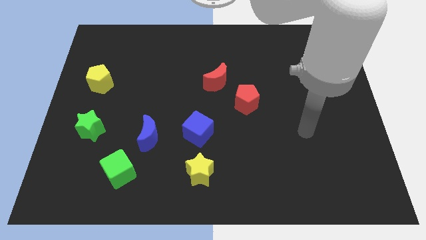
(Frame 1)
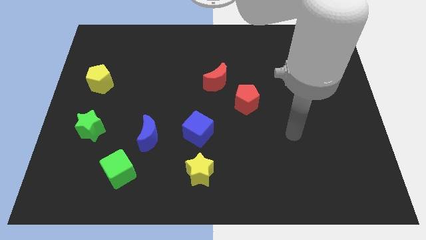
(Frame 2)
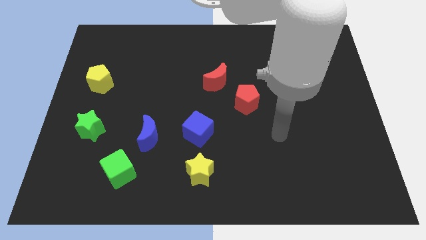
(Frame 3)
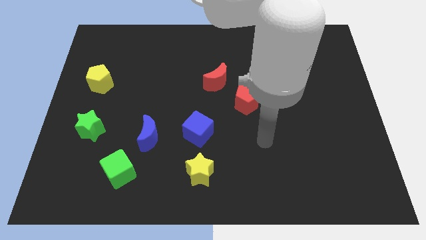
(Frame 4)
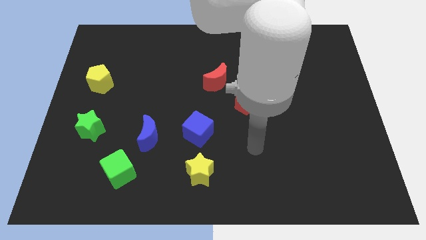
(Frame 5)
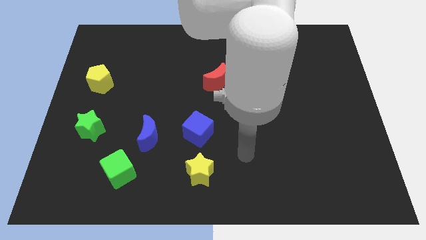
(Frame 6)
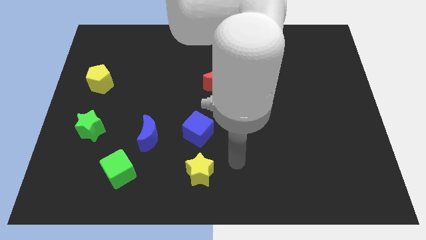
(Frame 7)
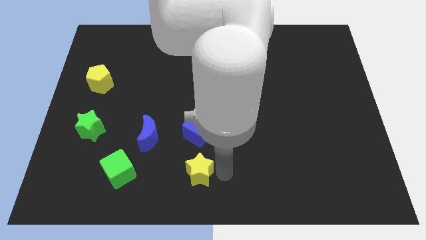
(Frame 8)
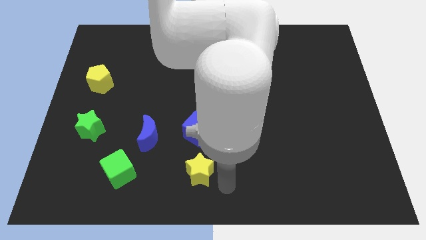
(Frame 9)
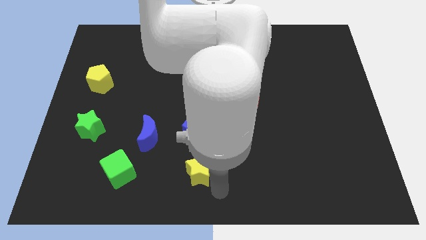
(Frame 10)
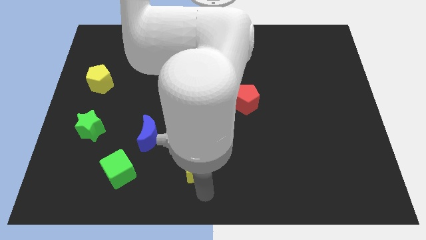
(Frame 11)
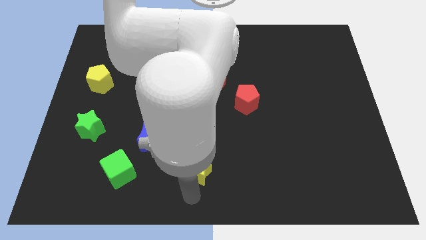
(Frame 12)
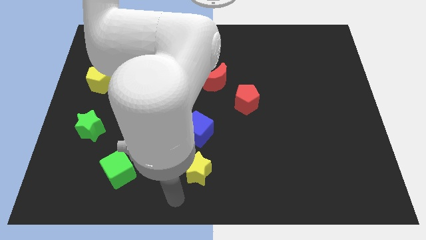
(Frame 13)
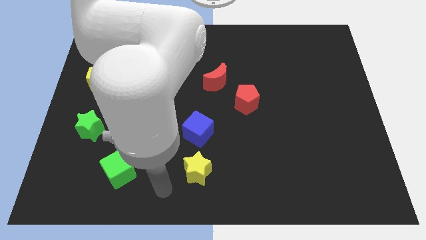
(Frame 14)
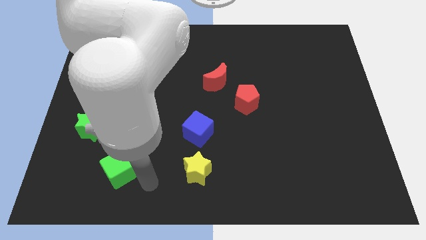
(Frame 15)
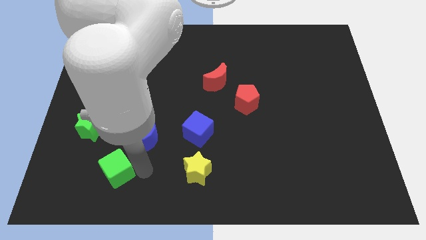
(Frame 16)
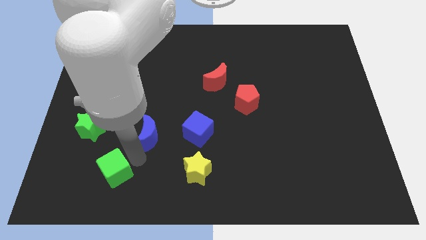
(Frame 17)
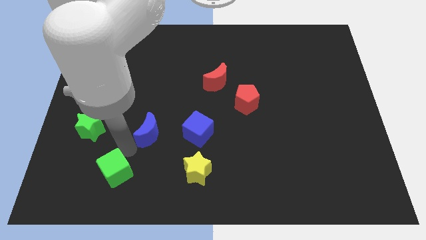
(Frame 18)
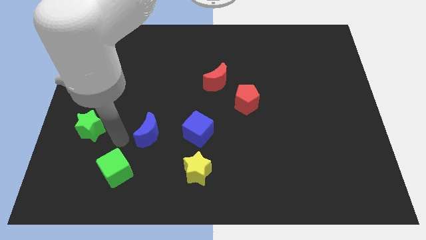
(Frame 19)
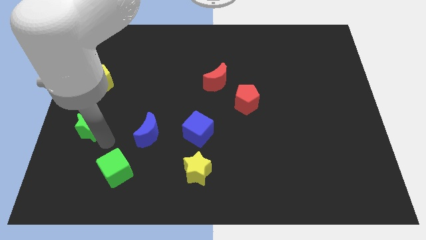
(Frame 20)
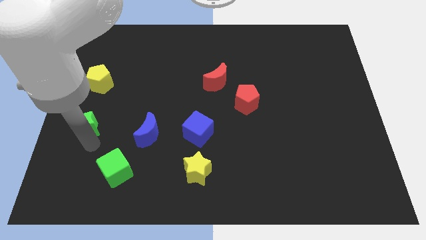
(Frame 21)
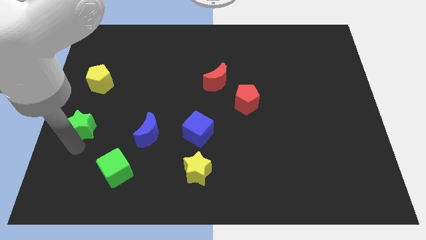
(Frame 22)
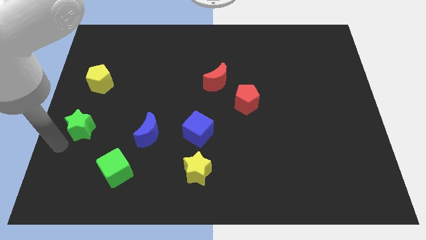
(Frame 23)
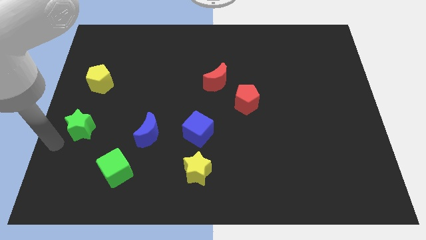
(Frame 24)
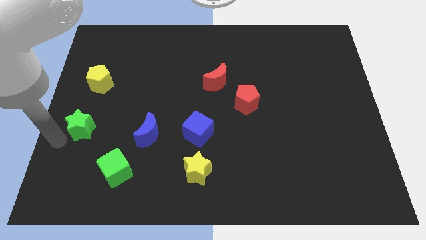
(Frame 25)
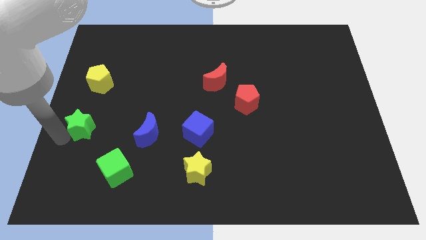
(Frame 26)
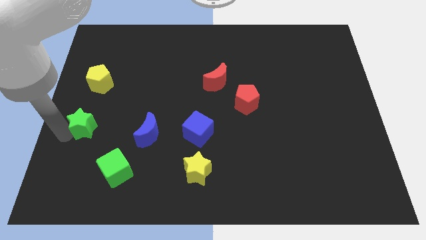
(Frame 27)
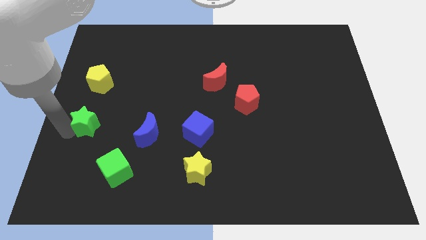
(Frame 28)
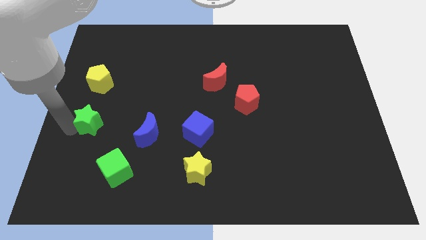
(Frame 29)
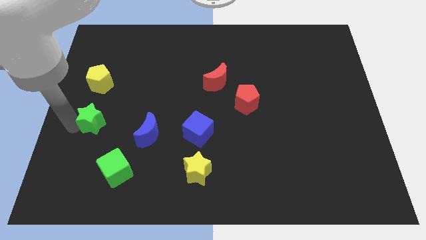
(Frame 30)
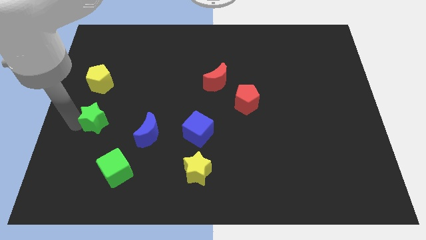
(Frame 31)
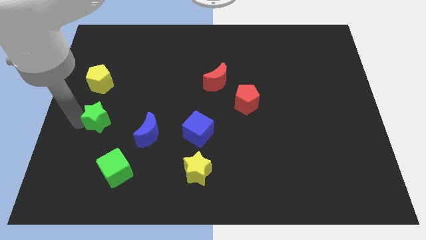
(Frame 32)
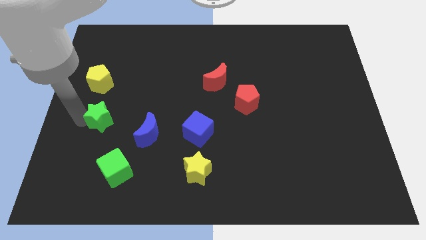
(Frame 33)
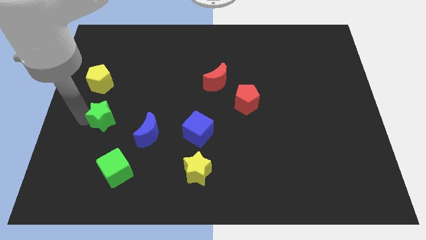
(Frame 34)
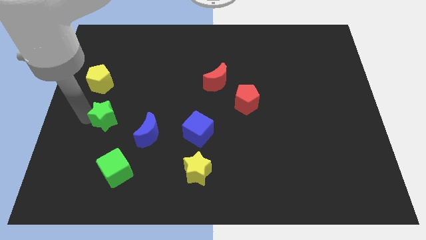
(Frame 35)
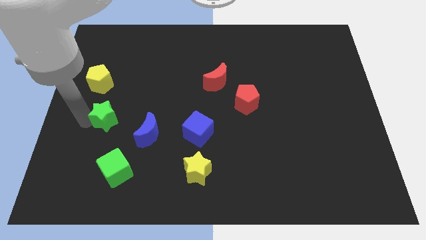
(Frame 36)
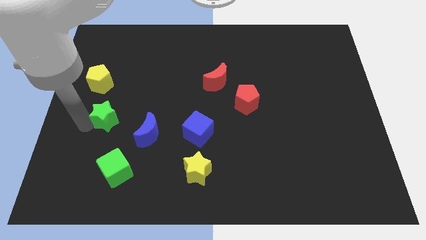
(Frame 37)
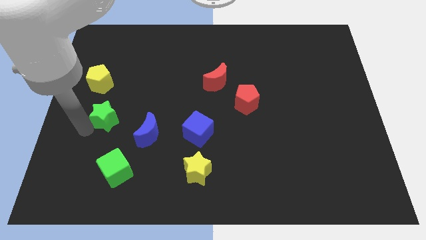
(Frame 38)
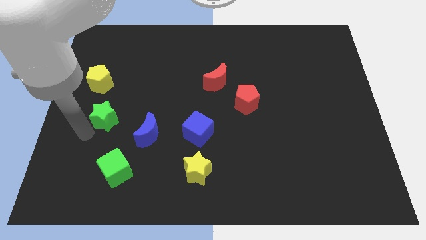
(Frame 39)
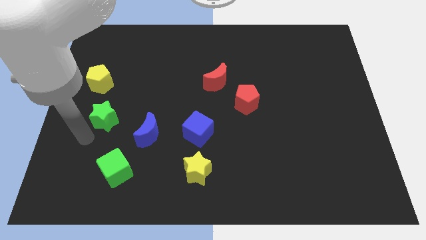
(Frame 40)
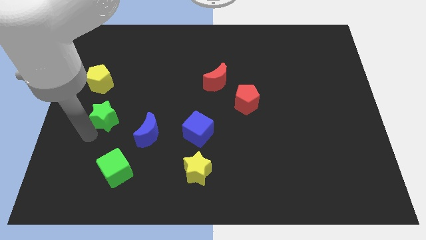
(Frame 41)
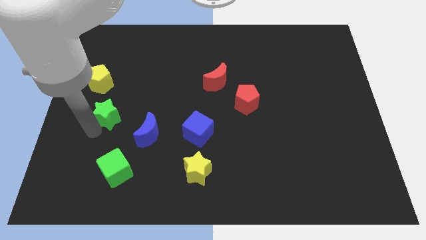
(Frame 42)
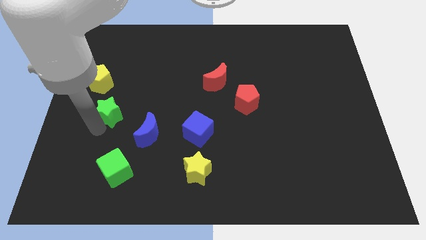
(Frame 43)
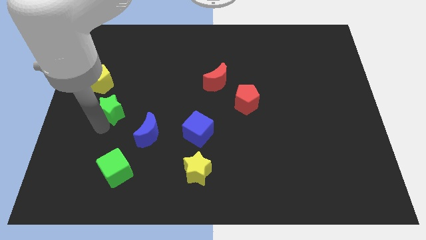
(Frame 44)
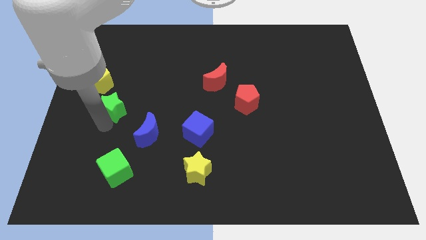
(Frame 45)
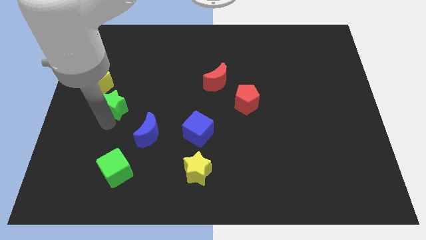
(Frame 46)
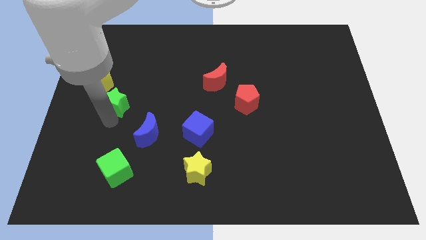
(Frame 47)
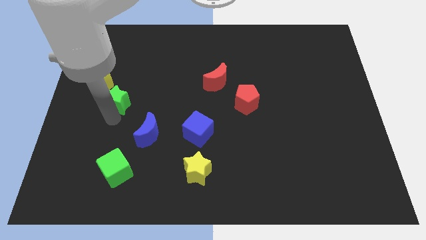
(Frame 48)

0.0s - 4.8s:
move the green star upwards a little

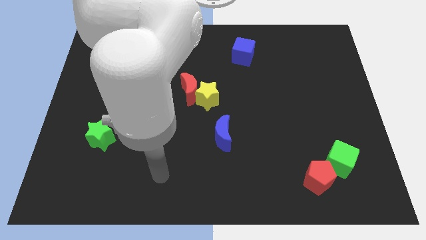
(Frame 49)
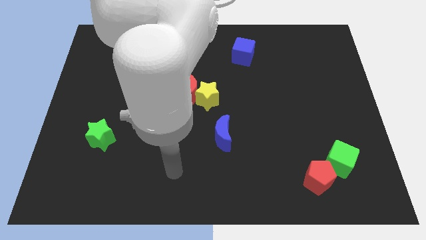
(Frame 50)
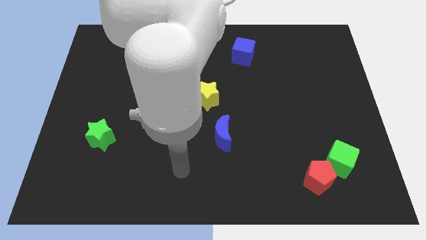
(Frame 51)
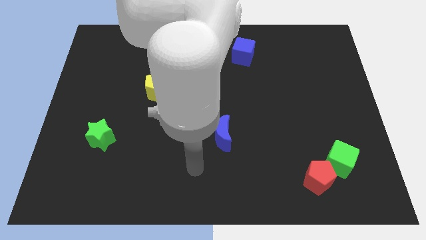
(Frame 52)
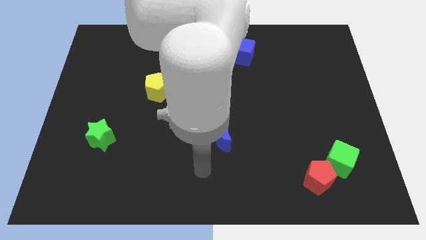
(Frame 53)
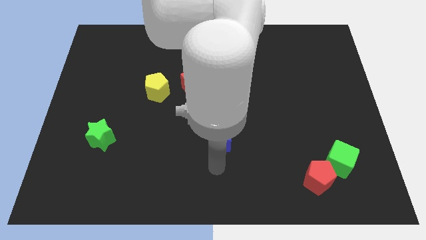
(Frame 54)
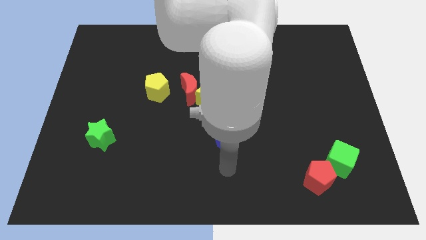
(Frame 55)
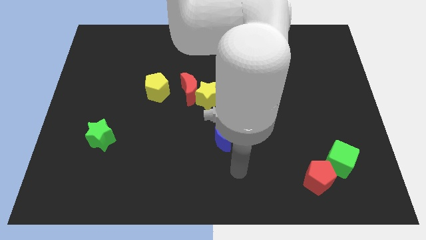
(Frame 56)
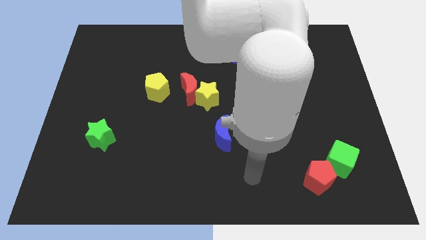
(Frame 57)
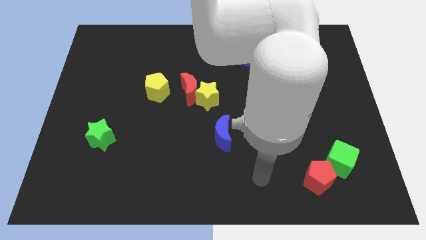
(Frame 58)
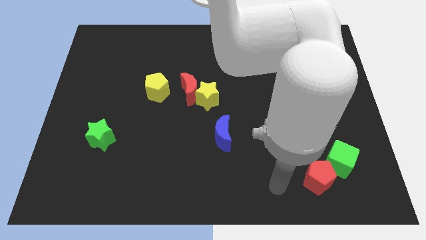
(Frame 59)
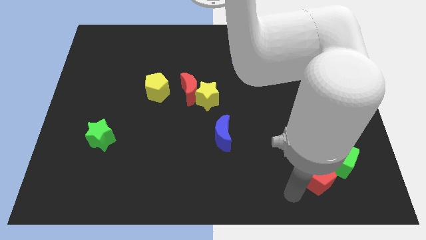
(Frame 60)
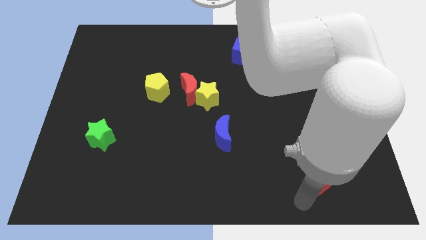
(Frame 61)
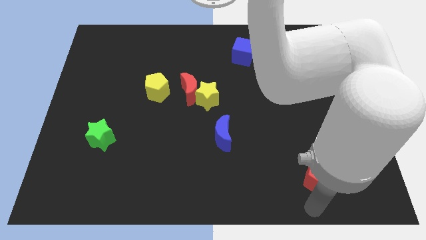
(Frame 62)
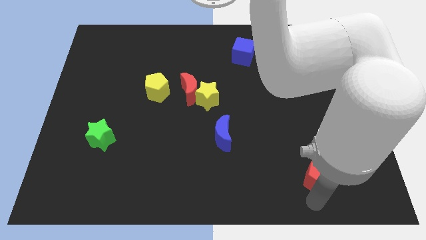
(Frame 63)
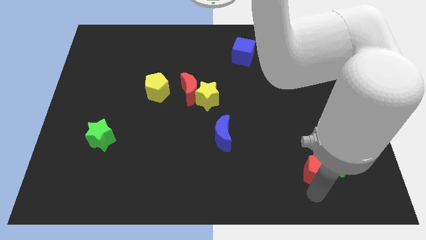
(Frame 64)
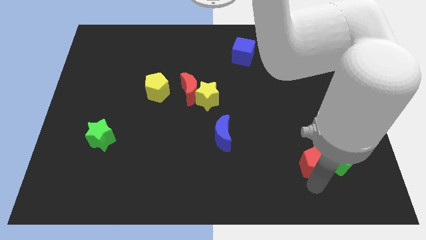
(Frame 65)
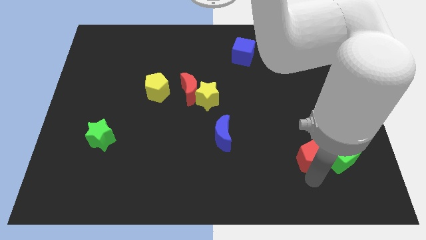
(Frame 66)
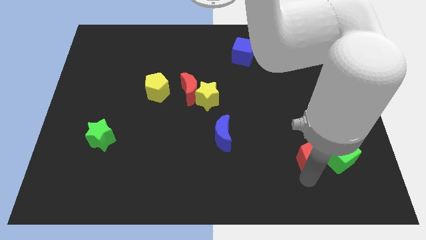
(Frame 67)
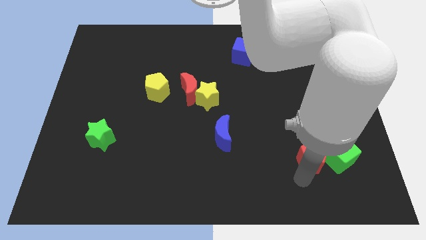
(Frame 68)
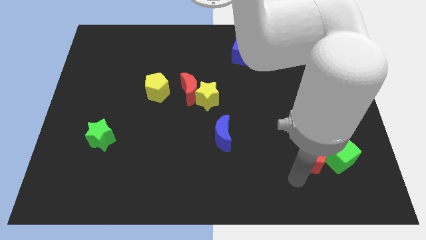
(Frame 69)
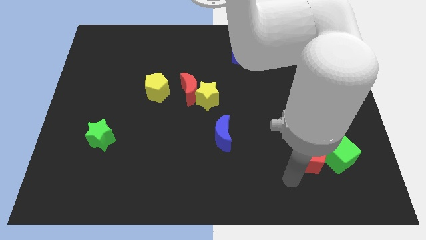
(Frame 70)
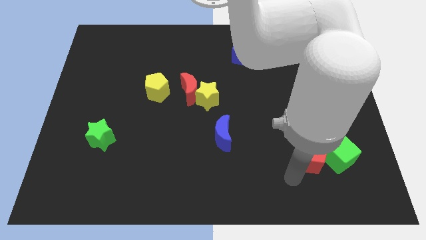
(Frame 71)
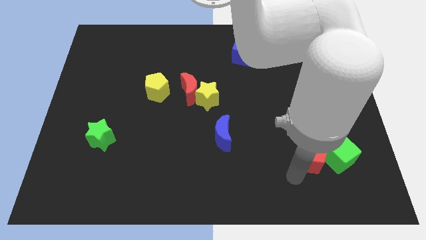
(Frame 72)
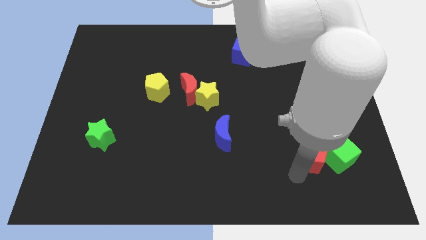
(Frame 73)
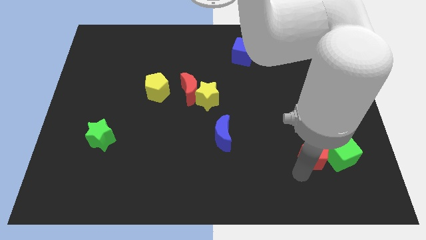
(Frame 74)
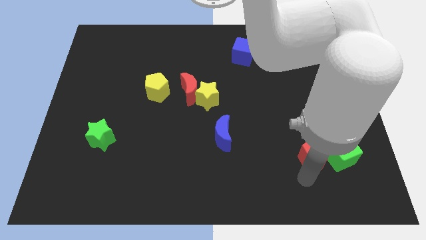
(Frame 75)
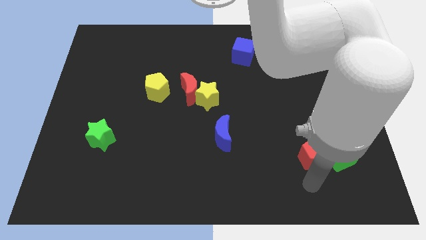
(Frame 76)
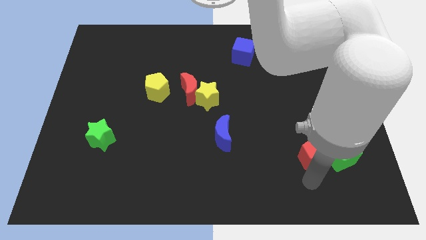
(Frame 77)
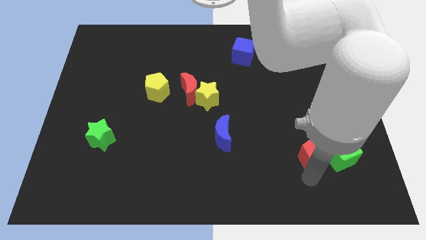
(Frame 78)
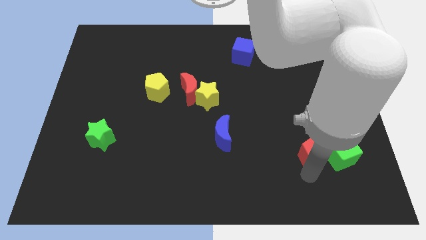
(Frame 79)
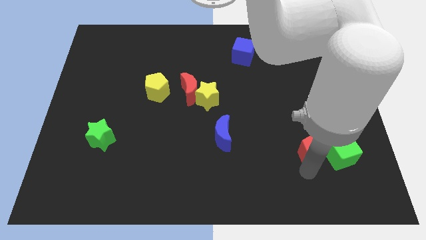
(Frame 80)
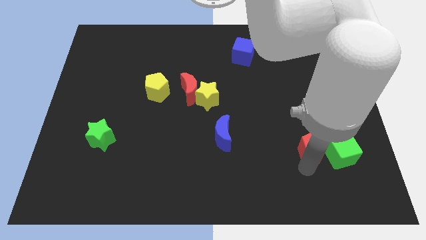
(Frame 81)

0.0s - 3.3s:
push the red pentagon up slightly

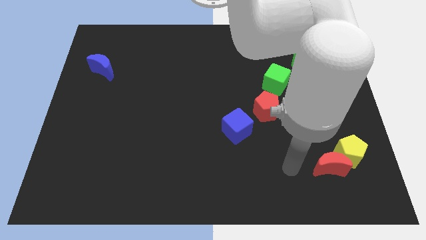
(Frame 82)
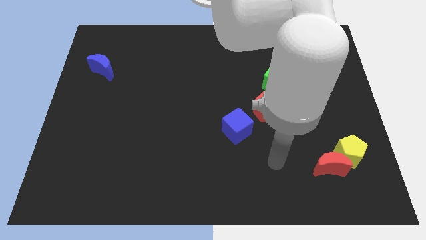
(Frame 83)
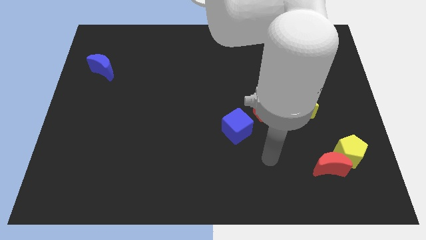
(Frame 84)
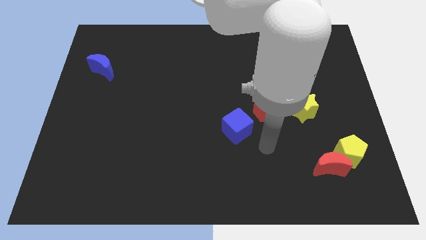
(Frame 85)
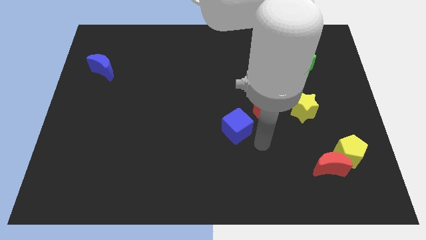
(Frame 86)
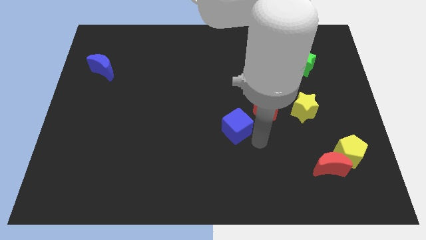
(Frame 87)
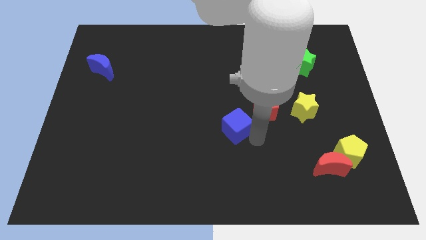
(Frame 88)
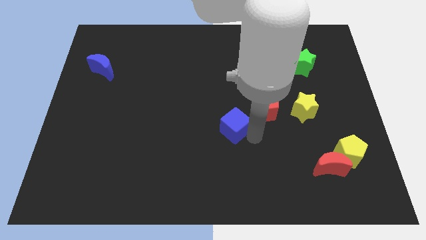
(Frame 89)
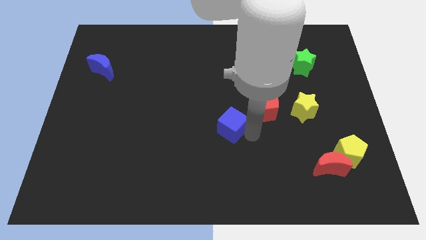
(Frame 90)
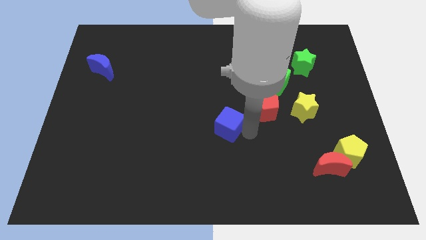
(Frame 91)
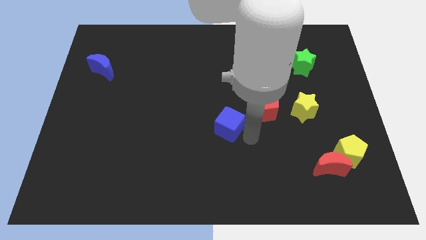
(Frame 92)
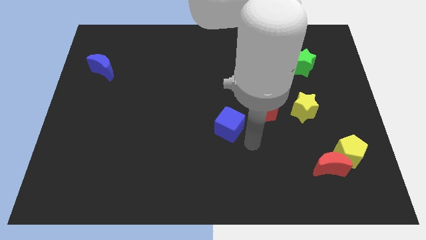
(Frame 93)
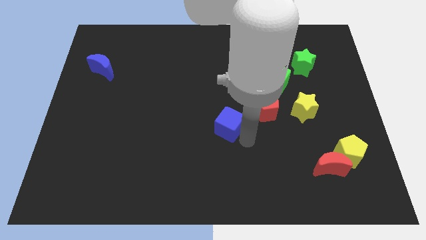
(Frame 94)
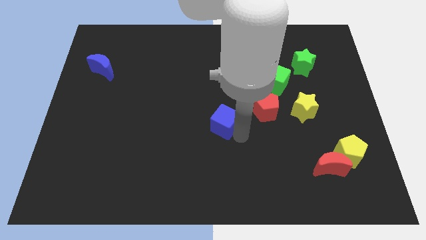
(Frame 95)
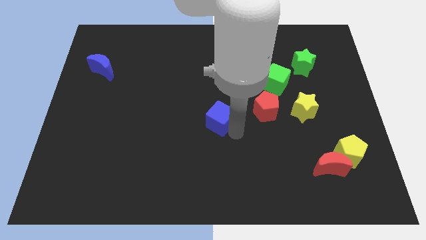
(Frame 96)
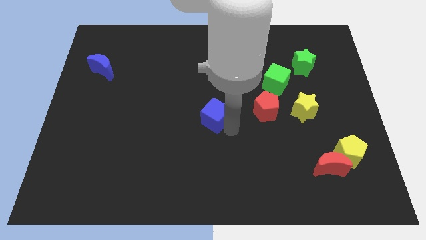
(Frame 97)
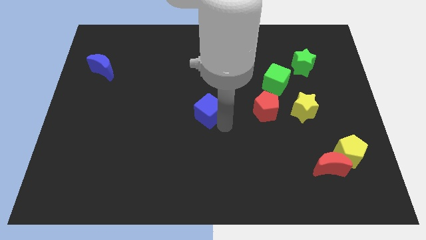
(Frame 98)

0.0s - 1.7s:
slightly slide the blue cube up and left
